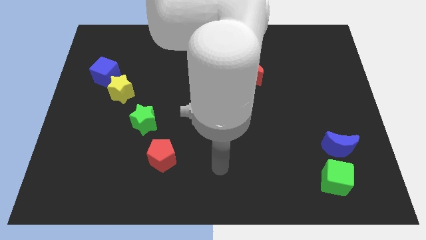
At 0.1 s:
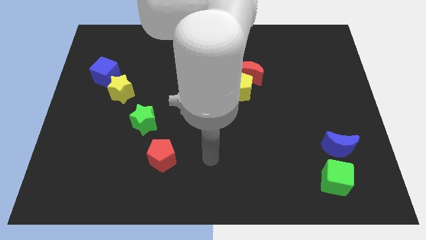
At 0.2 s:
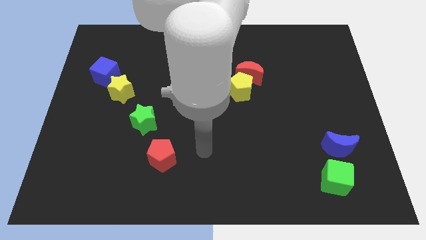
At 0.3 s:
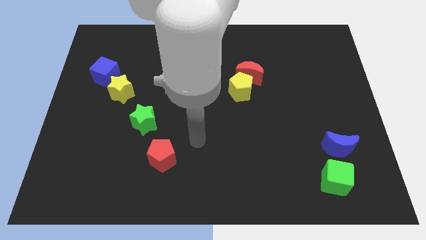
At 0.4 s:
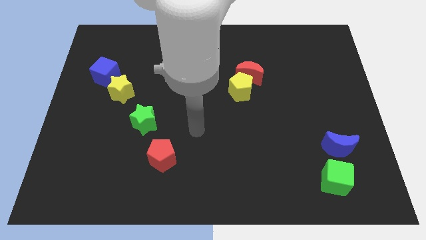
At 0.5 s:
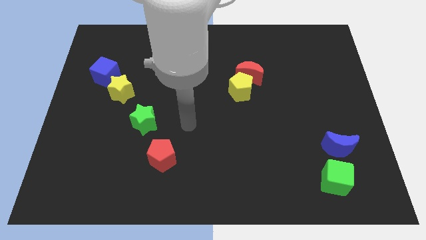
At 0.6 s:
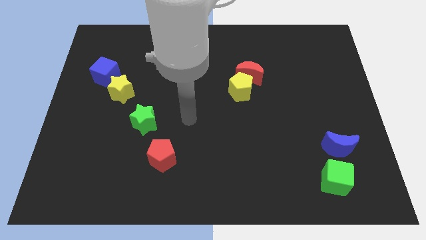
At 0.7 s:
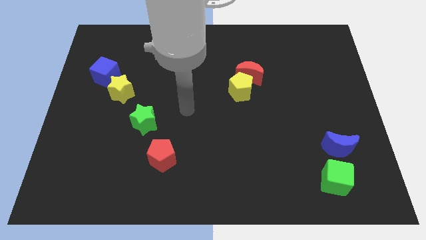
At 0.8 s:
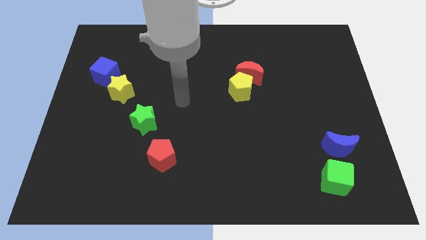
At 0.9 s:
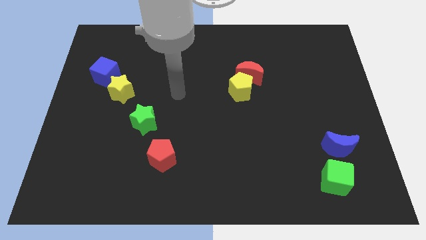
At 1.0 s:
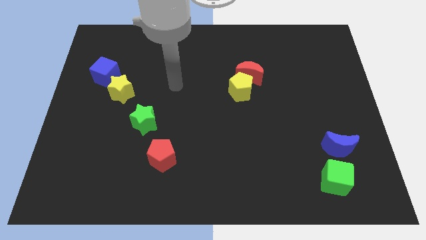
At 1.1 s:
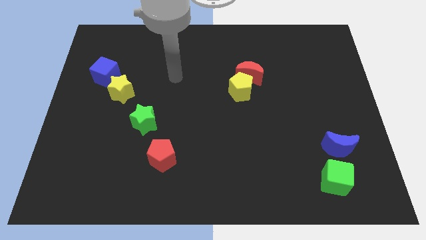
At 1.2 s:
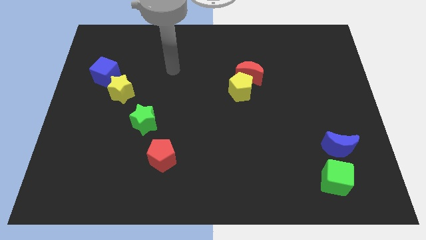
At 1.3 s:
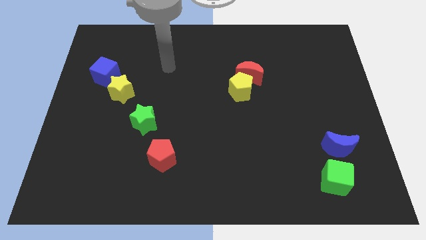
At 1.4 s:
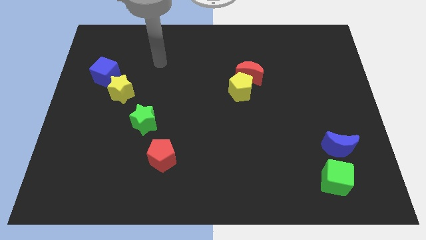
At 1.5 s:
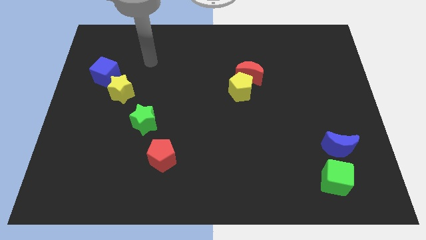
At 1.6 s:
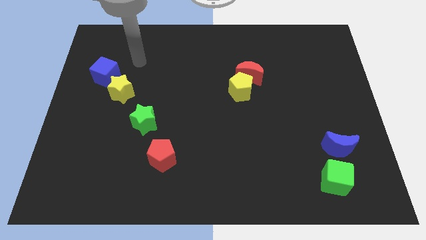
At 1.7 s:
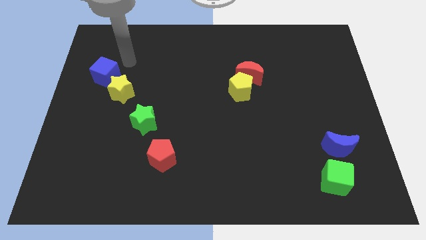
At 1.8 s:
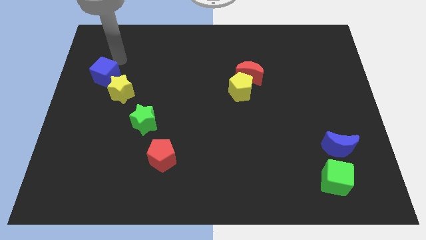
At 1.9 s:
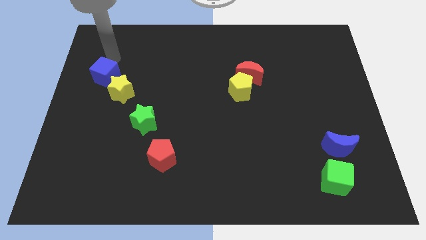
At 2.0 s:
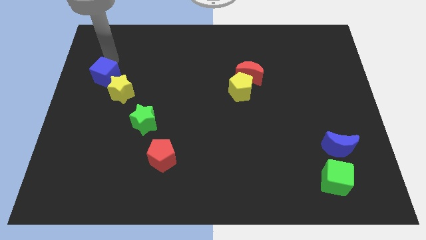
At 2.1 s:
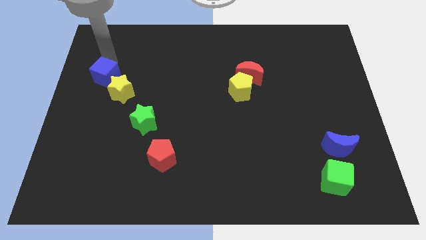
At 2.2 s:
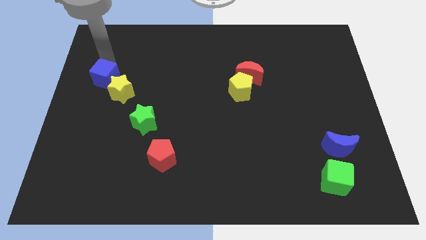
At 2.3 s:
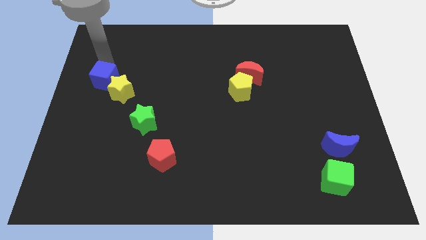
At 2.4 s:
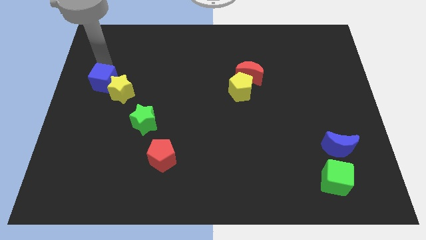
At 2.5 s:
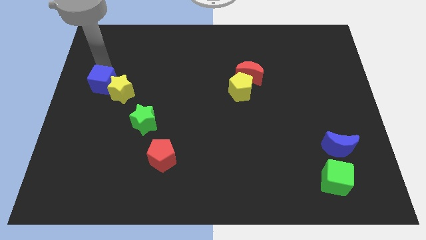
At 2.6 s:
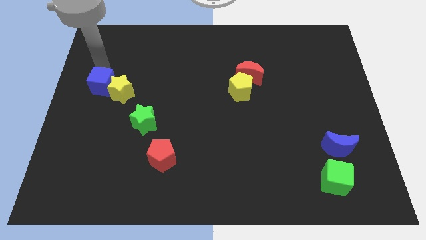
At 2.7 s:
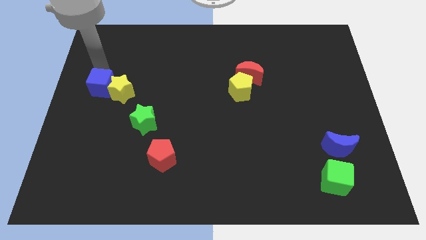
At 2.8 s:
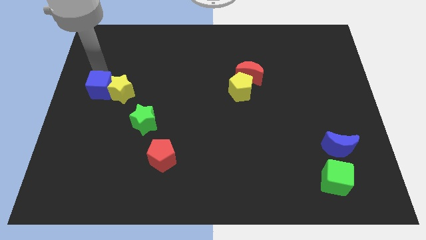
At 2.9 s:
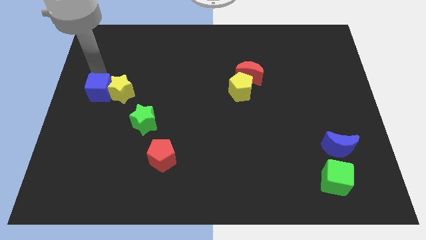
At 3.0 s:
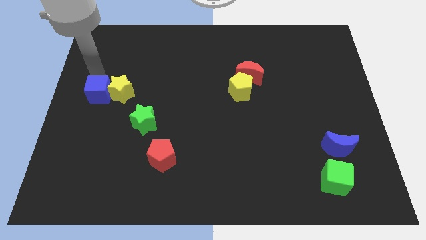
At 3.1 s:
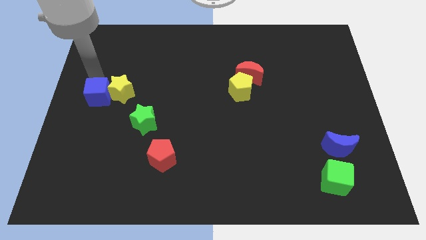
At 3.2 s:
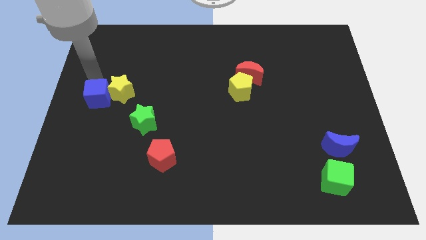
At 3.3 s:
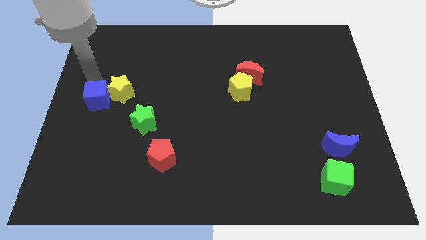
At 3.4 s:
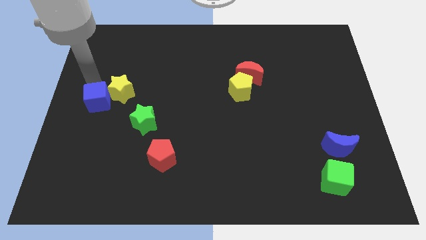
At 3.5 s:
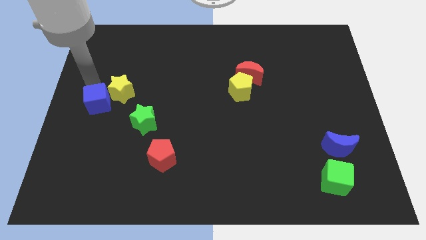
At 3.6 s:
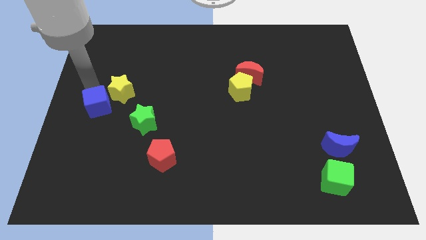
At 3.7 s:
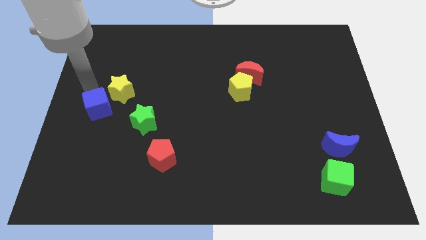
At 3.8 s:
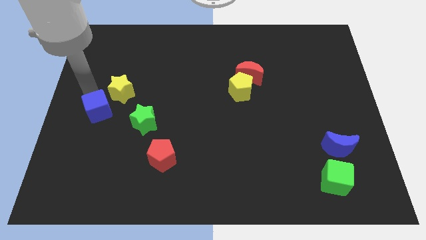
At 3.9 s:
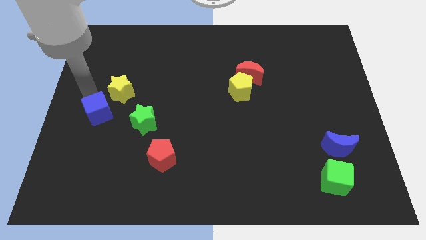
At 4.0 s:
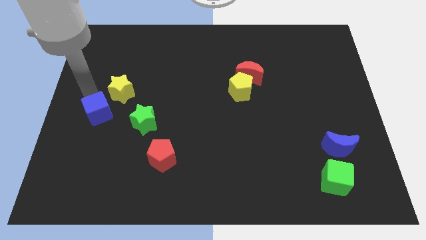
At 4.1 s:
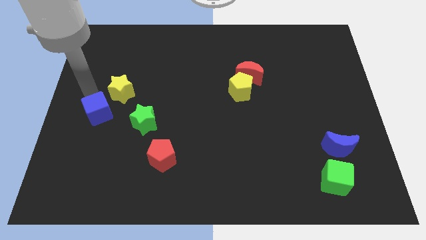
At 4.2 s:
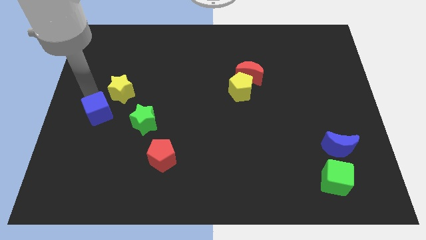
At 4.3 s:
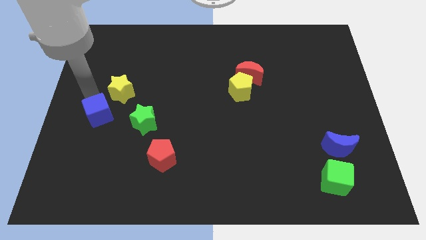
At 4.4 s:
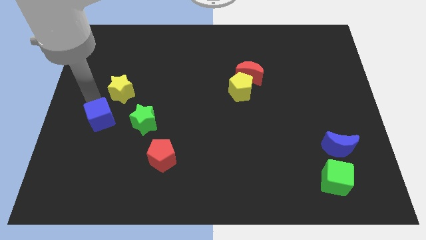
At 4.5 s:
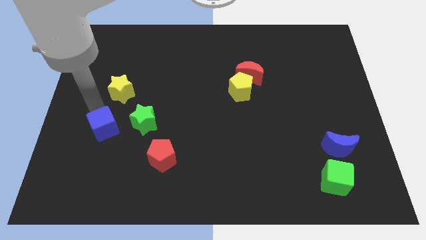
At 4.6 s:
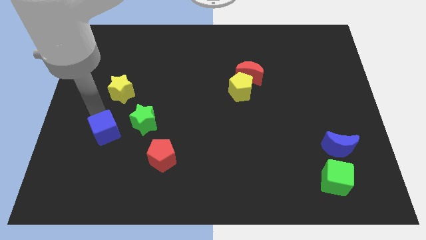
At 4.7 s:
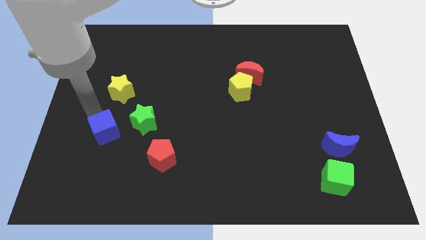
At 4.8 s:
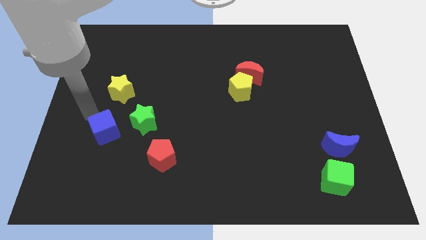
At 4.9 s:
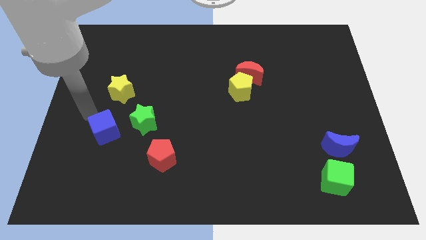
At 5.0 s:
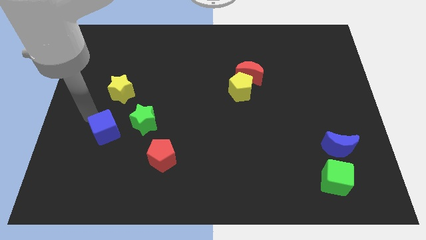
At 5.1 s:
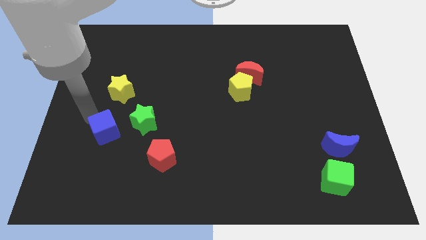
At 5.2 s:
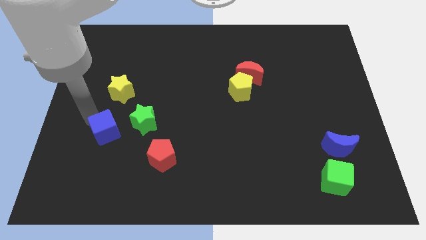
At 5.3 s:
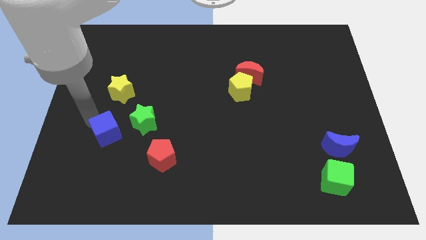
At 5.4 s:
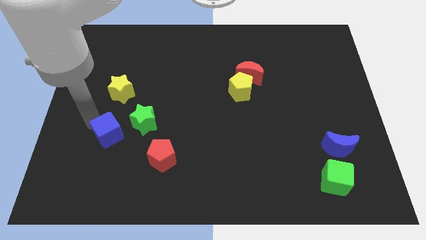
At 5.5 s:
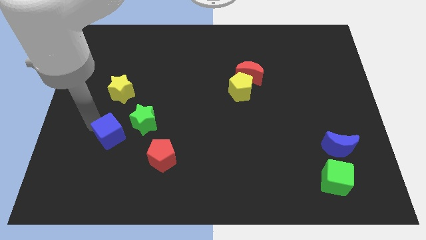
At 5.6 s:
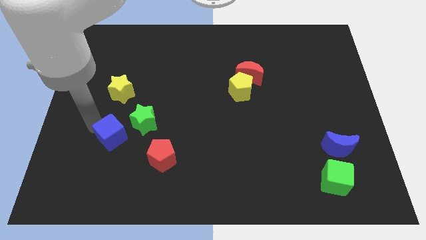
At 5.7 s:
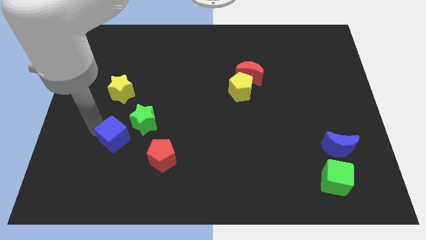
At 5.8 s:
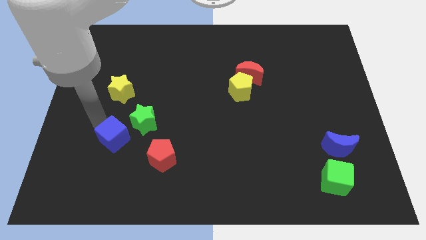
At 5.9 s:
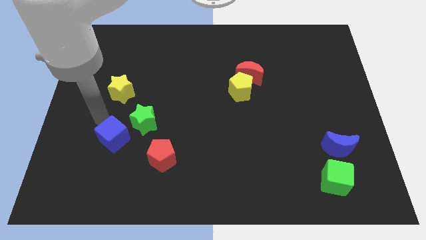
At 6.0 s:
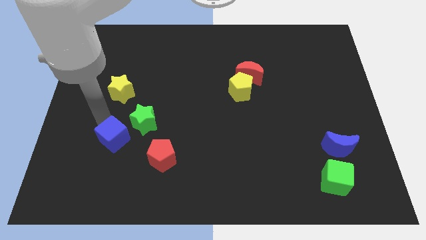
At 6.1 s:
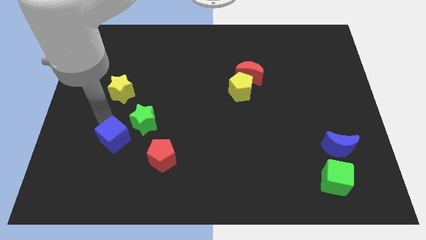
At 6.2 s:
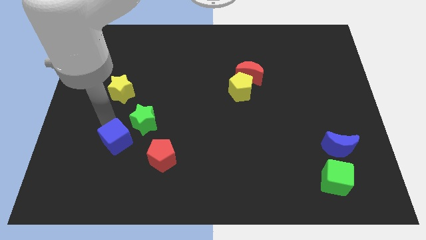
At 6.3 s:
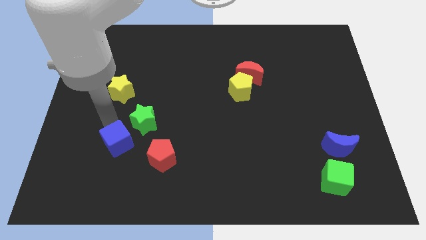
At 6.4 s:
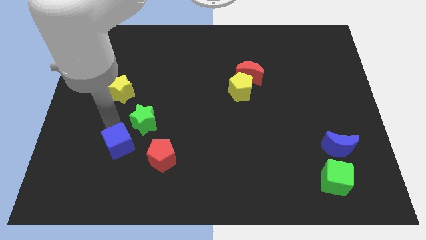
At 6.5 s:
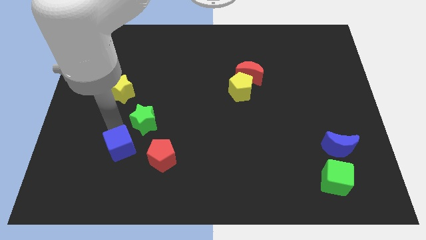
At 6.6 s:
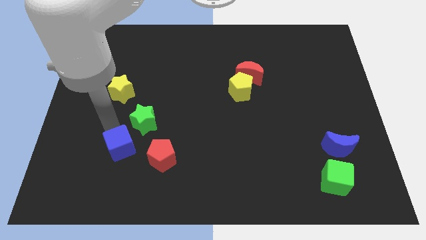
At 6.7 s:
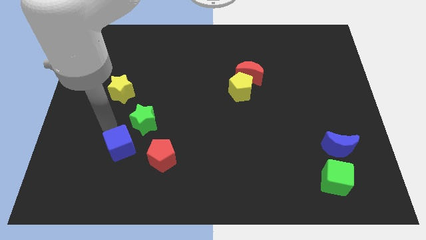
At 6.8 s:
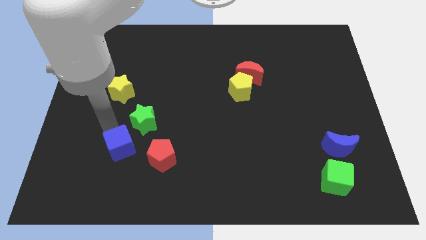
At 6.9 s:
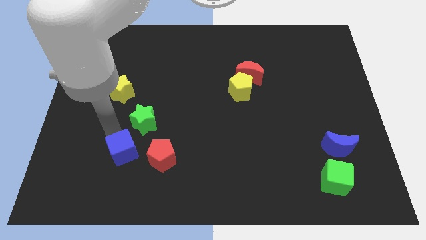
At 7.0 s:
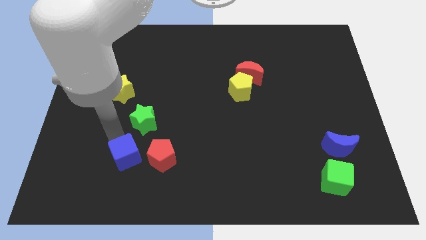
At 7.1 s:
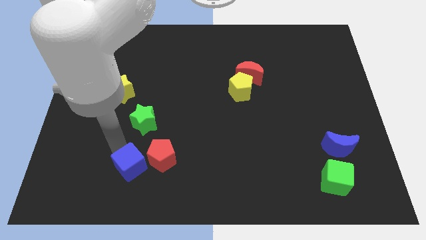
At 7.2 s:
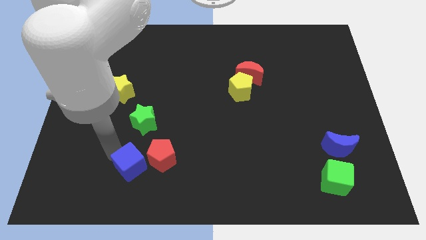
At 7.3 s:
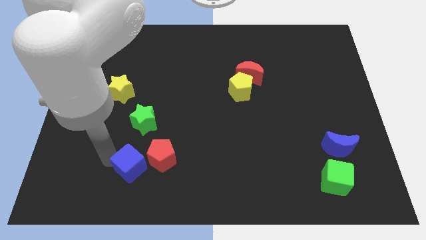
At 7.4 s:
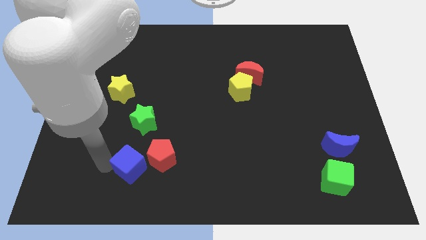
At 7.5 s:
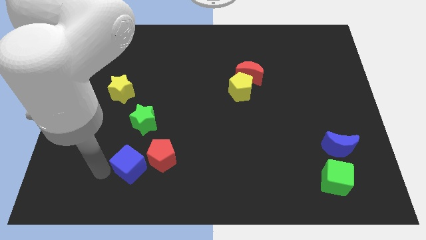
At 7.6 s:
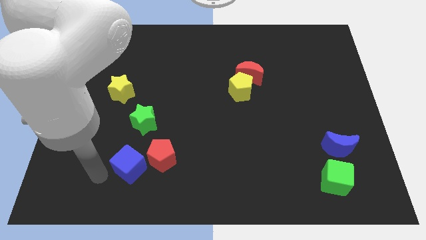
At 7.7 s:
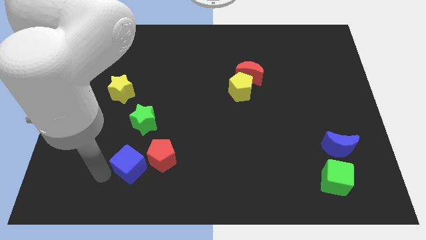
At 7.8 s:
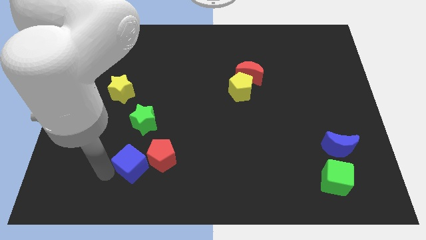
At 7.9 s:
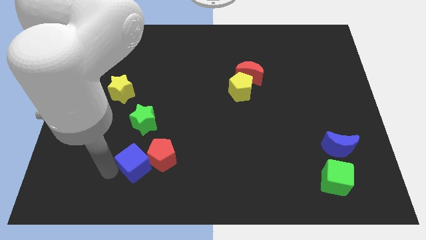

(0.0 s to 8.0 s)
move the blue cube to the red pentagon
